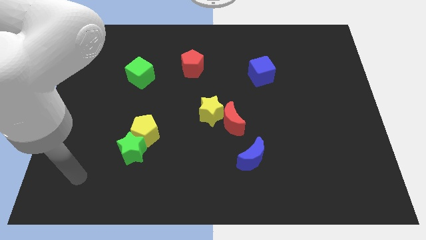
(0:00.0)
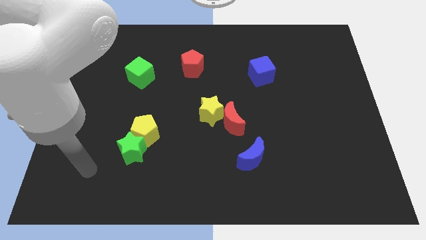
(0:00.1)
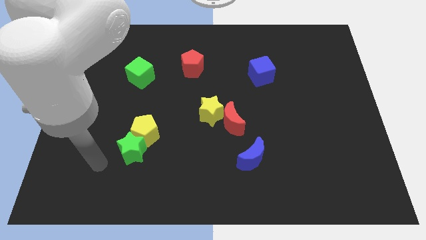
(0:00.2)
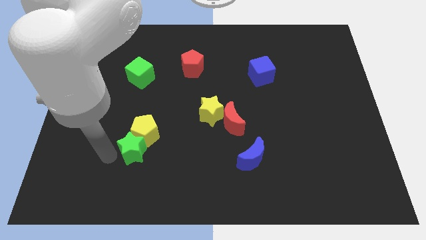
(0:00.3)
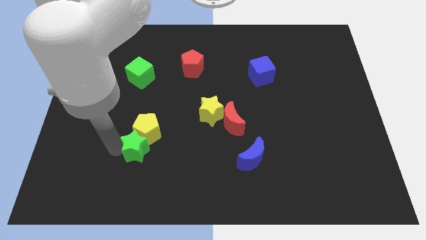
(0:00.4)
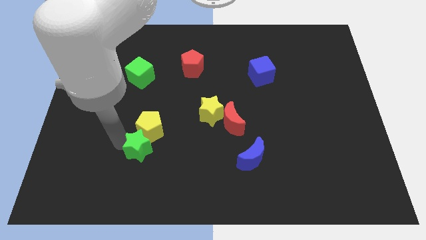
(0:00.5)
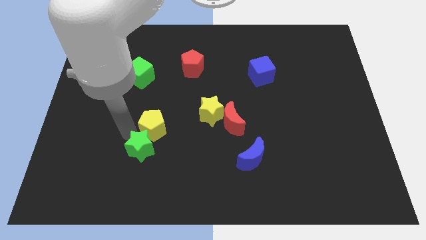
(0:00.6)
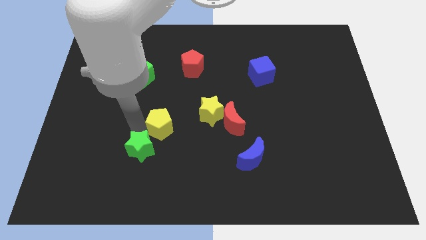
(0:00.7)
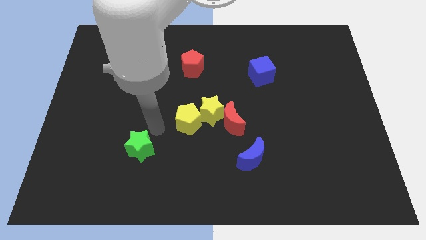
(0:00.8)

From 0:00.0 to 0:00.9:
move the green star away from the yellow pentagon

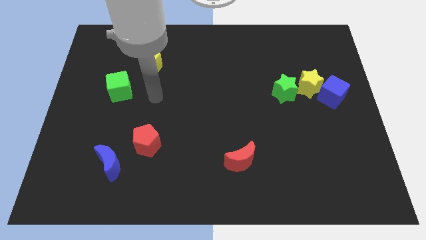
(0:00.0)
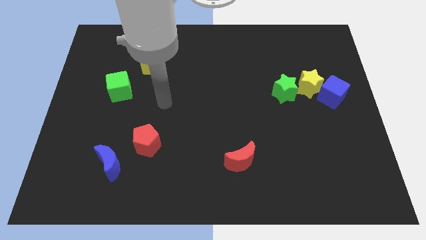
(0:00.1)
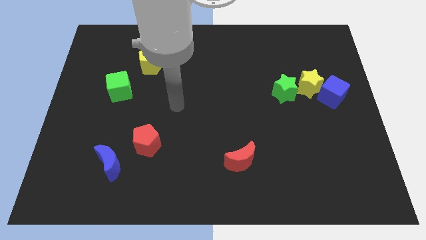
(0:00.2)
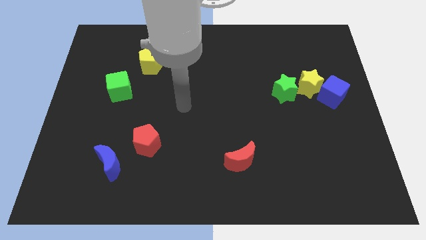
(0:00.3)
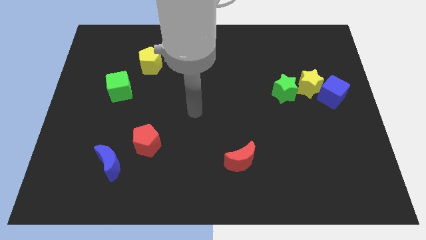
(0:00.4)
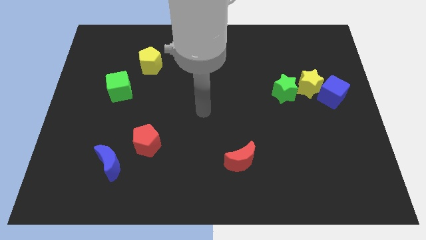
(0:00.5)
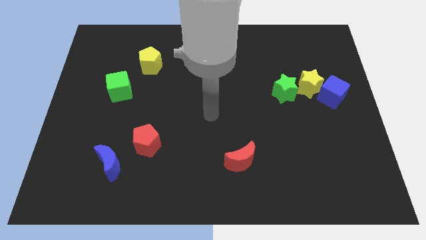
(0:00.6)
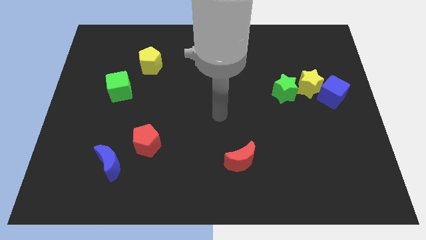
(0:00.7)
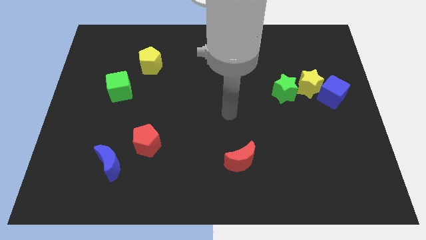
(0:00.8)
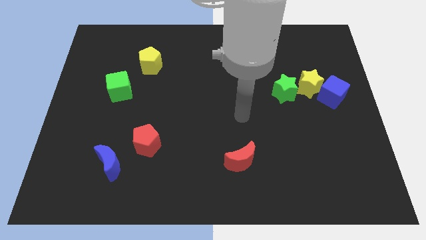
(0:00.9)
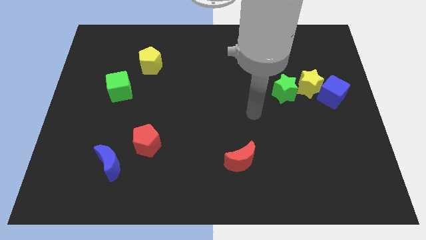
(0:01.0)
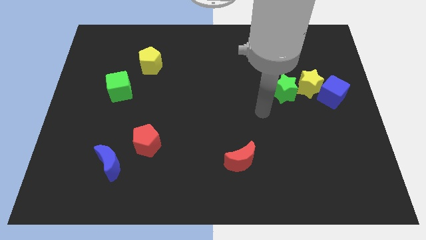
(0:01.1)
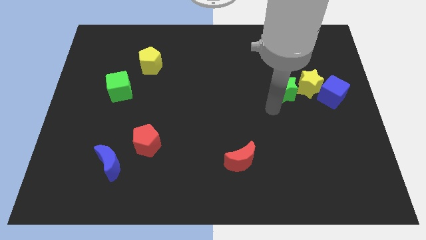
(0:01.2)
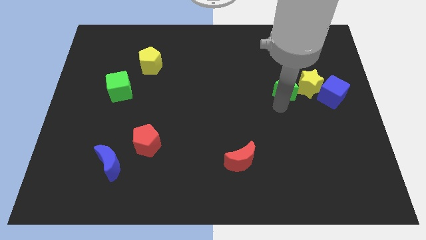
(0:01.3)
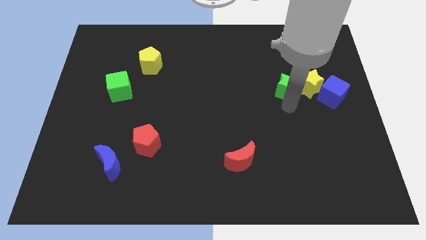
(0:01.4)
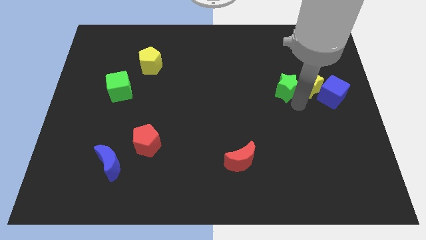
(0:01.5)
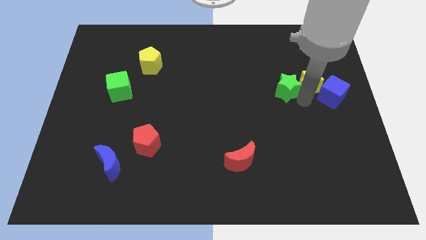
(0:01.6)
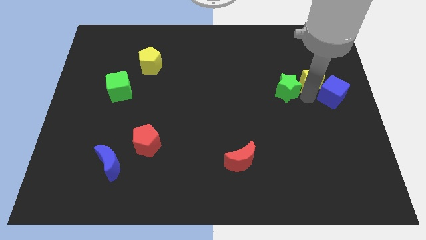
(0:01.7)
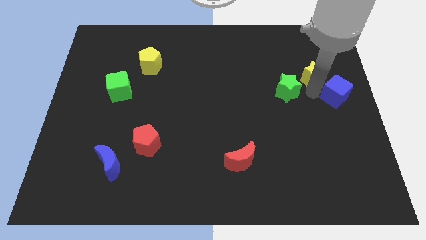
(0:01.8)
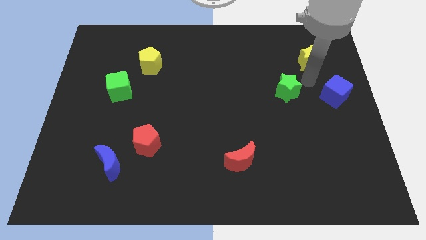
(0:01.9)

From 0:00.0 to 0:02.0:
move the green star away from the yellow star

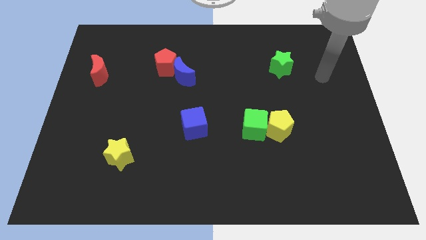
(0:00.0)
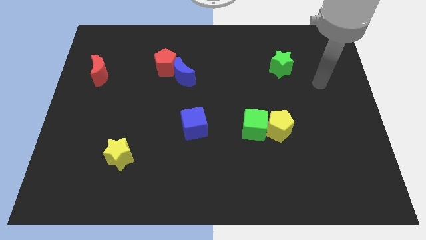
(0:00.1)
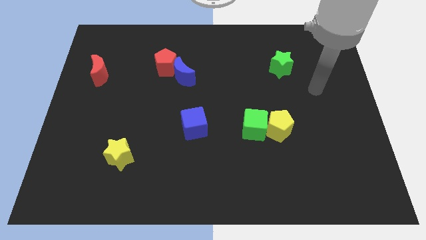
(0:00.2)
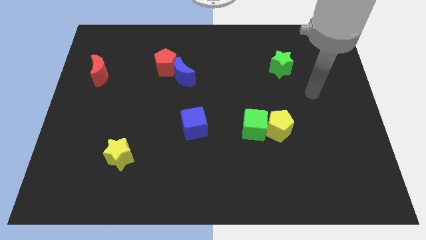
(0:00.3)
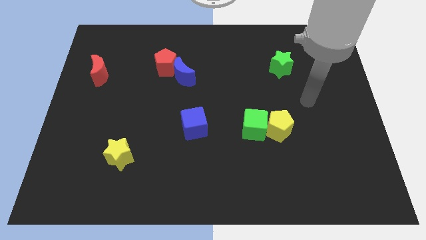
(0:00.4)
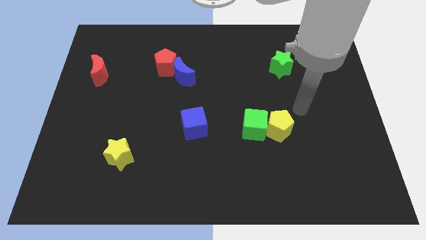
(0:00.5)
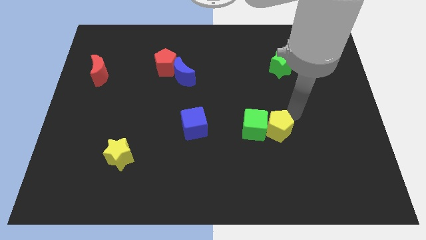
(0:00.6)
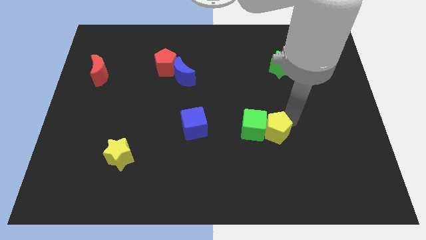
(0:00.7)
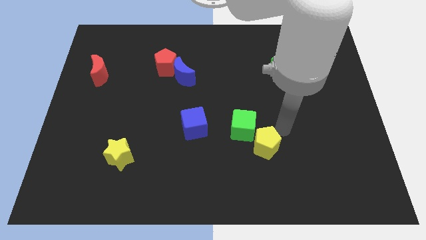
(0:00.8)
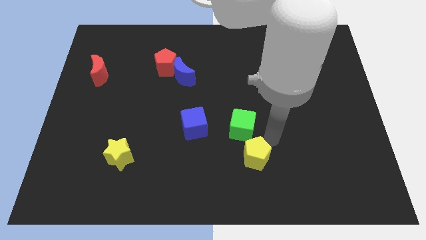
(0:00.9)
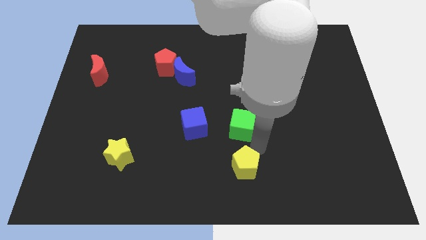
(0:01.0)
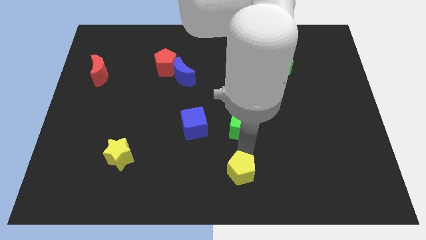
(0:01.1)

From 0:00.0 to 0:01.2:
separate the green cube from the yellow pentagon

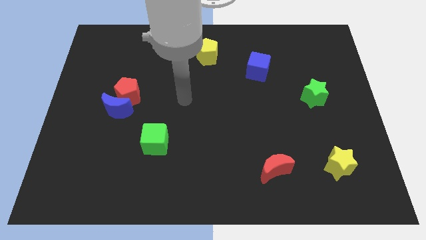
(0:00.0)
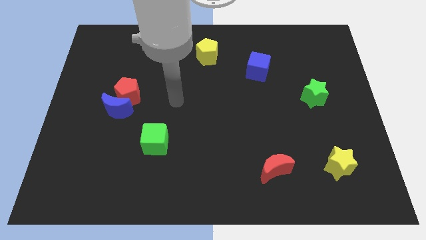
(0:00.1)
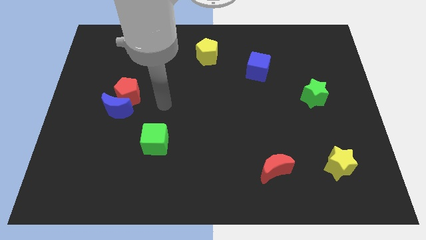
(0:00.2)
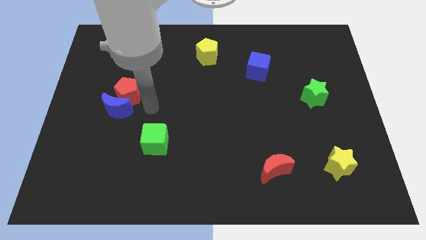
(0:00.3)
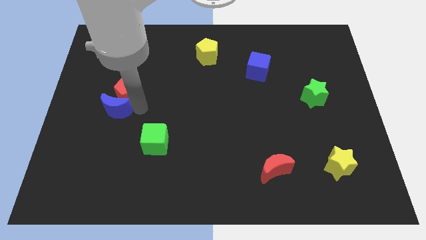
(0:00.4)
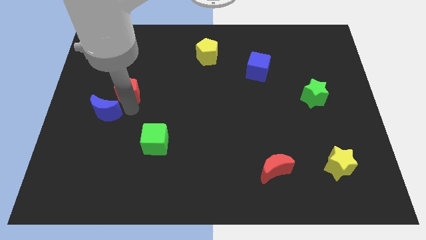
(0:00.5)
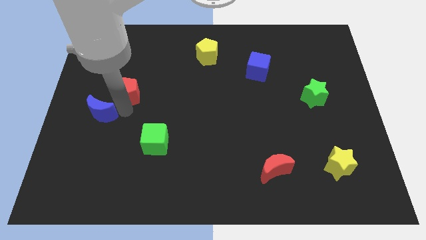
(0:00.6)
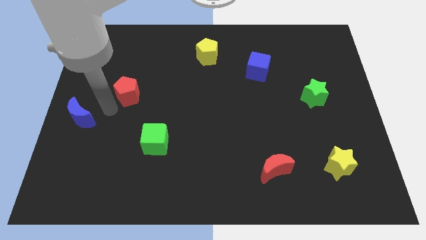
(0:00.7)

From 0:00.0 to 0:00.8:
pull the red pentagon apart from the blue moon

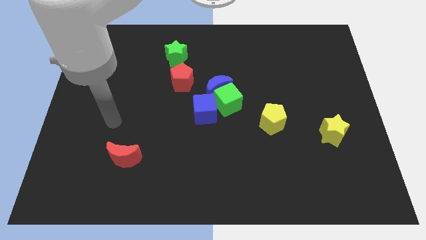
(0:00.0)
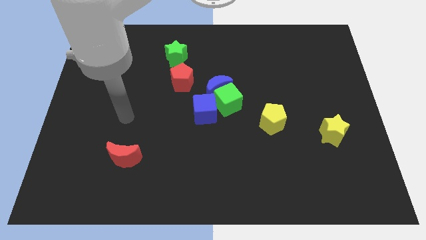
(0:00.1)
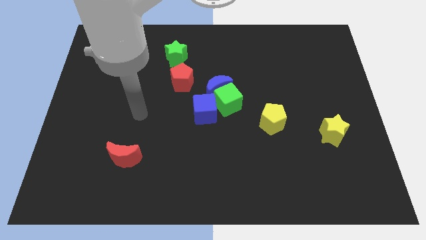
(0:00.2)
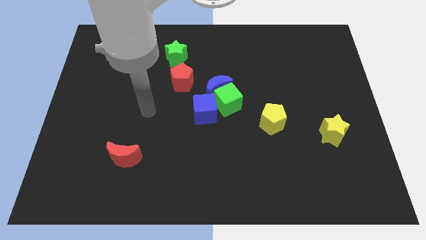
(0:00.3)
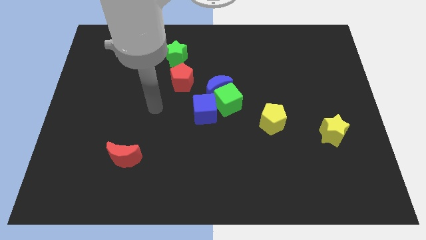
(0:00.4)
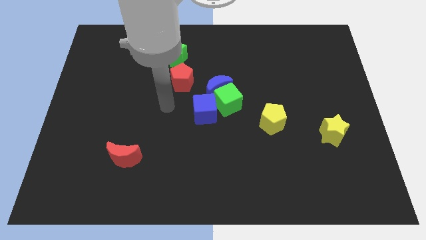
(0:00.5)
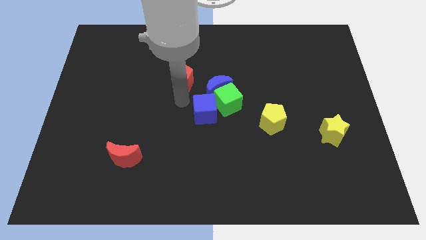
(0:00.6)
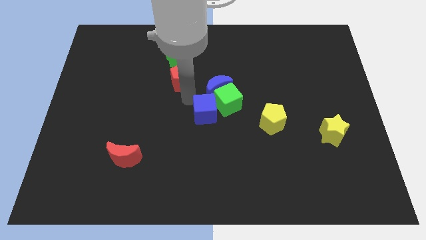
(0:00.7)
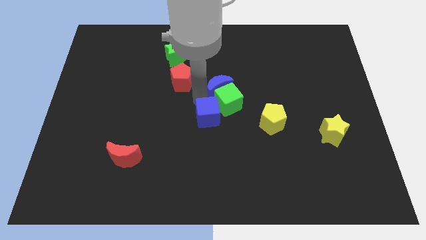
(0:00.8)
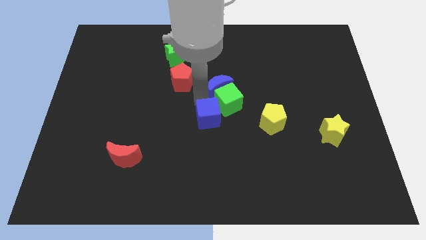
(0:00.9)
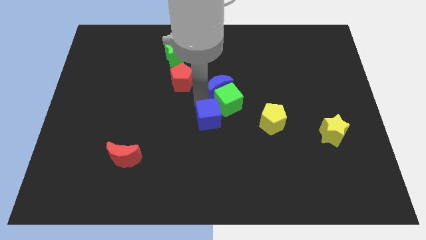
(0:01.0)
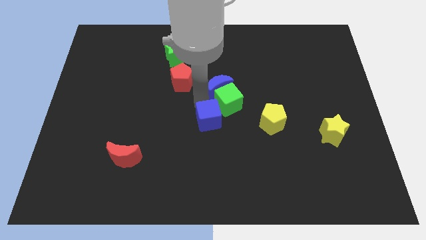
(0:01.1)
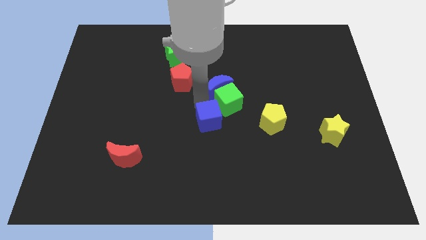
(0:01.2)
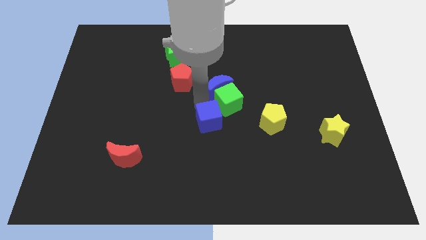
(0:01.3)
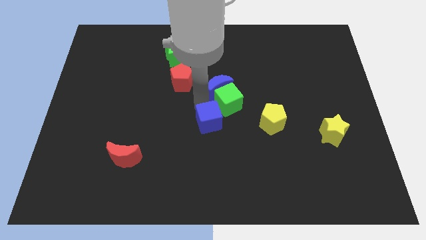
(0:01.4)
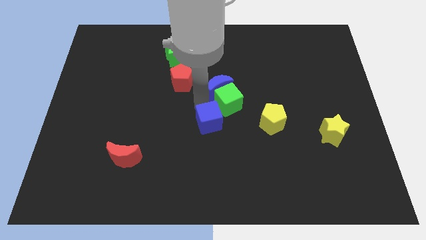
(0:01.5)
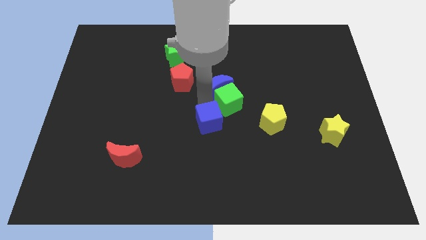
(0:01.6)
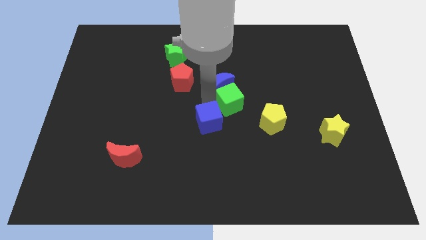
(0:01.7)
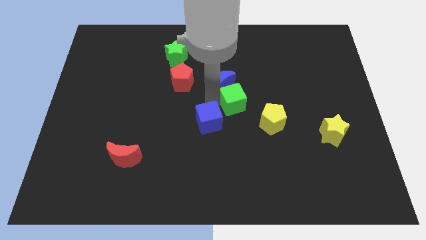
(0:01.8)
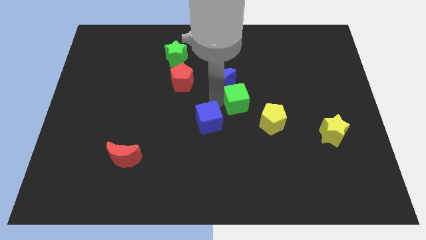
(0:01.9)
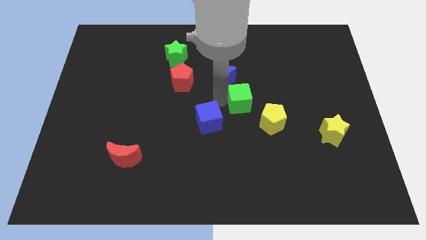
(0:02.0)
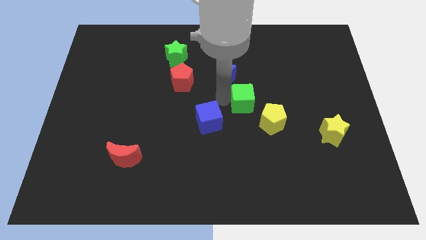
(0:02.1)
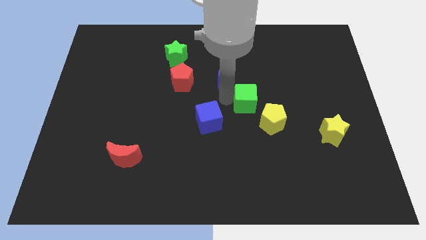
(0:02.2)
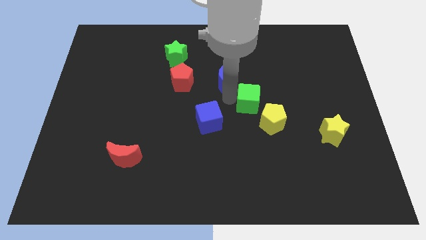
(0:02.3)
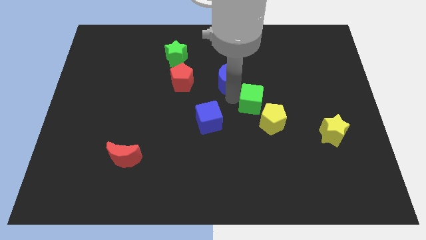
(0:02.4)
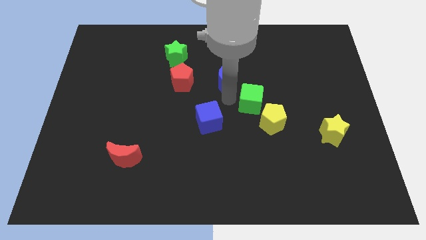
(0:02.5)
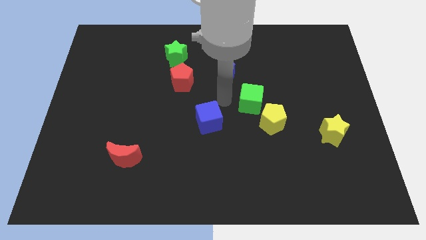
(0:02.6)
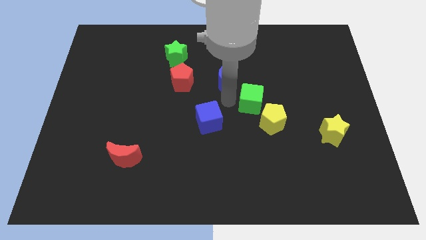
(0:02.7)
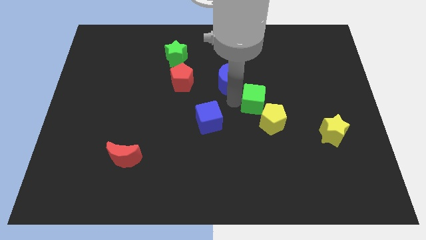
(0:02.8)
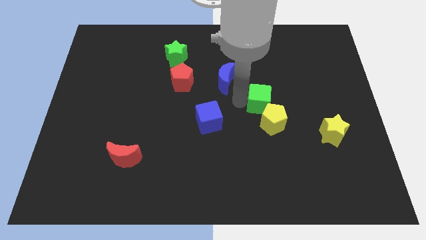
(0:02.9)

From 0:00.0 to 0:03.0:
move the green cube away from the blue moon and blue cube

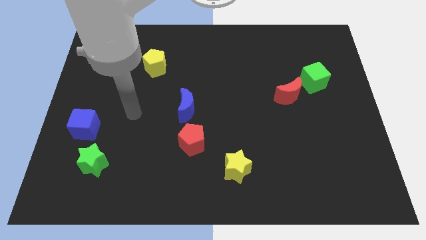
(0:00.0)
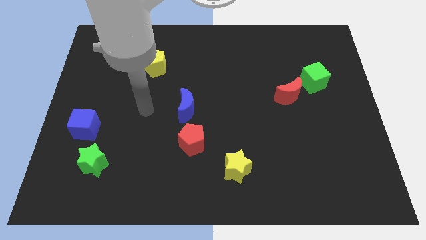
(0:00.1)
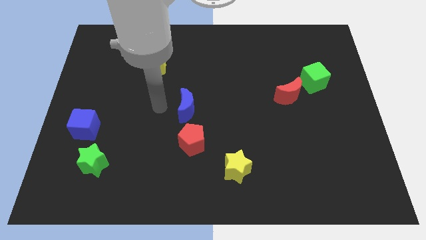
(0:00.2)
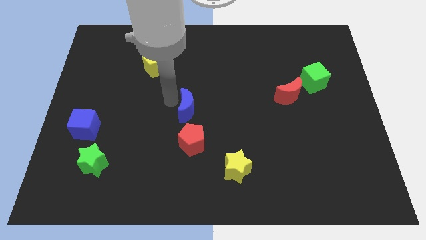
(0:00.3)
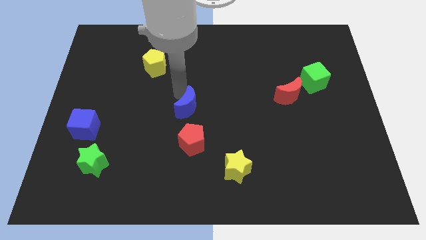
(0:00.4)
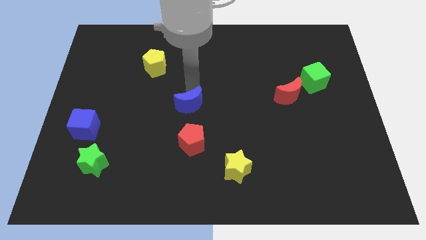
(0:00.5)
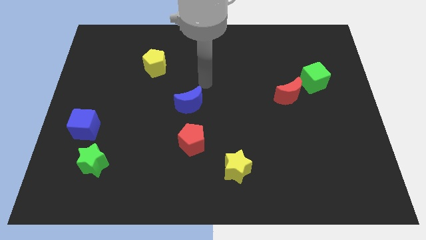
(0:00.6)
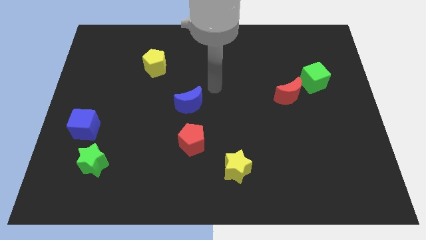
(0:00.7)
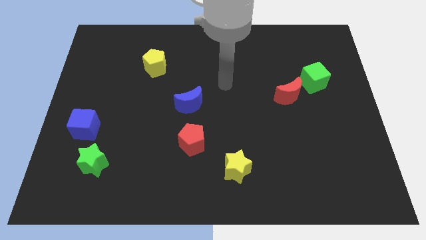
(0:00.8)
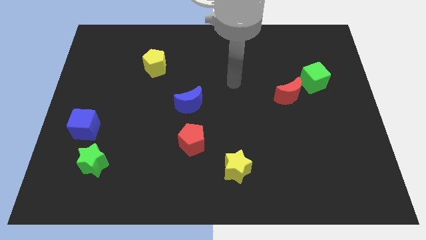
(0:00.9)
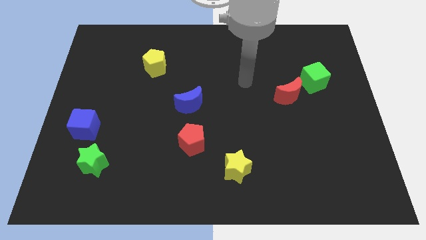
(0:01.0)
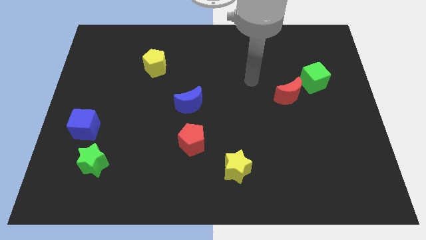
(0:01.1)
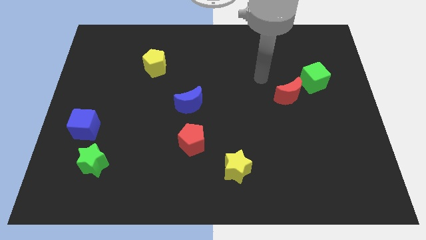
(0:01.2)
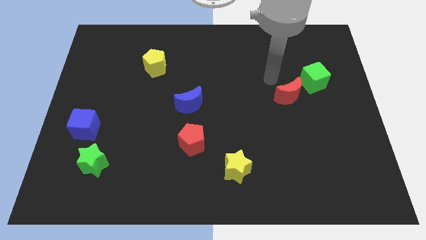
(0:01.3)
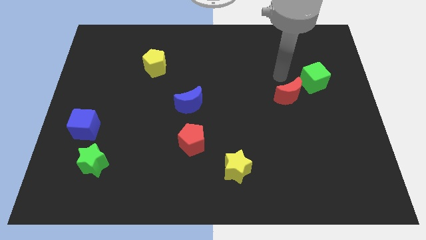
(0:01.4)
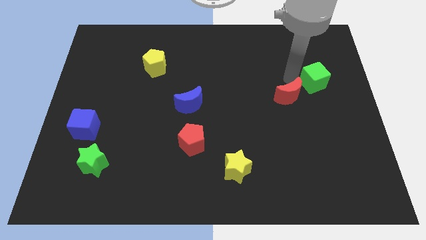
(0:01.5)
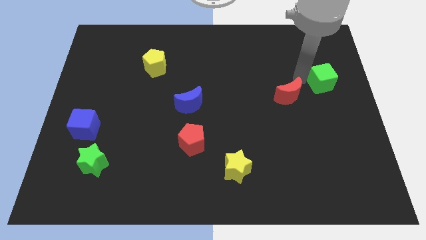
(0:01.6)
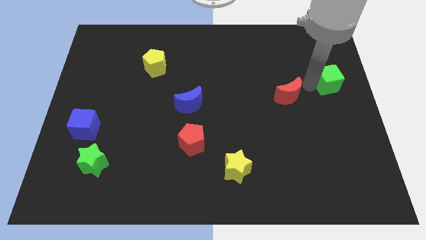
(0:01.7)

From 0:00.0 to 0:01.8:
separate the red moon from the green cube
